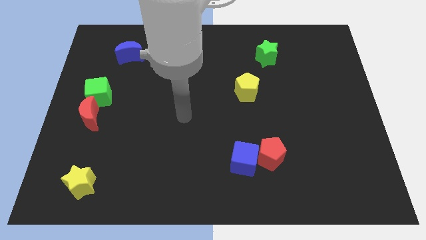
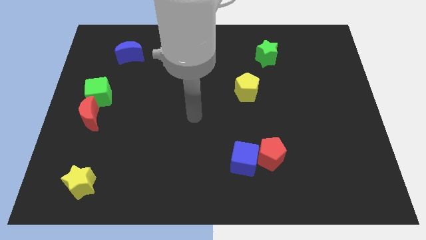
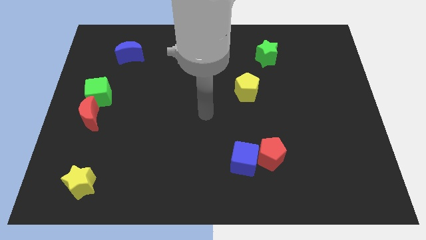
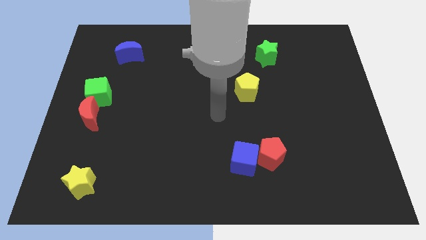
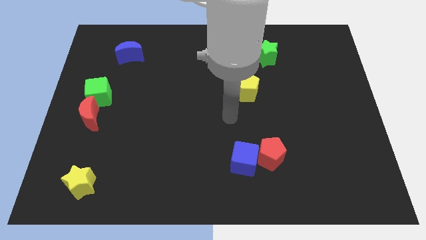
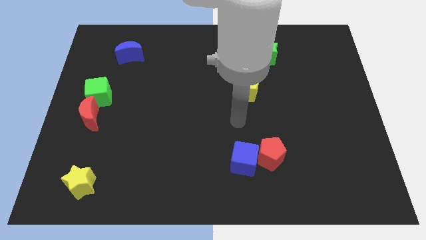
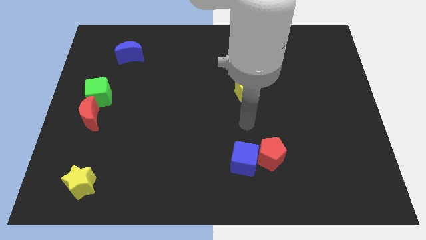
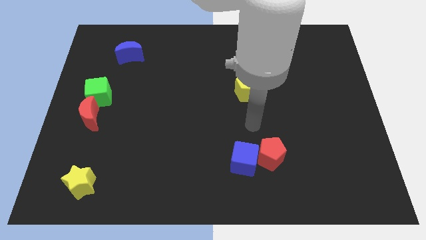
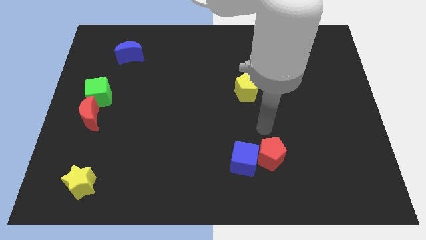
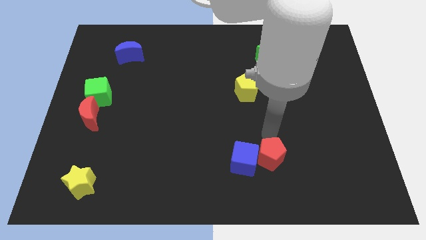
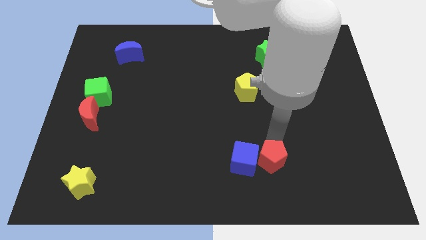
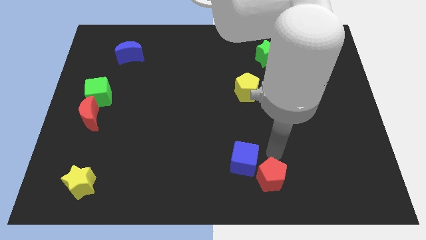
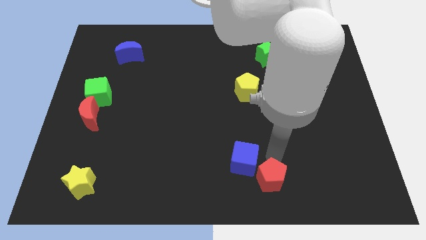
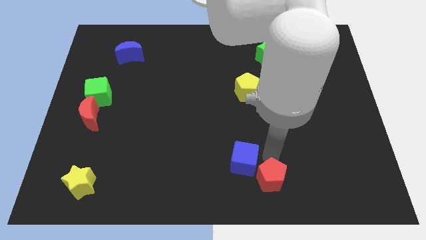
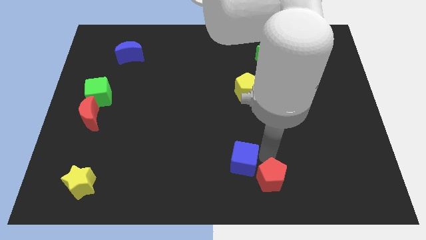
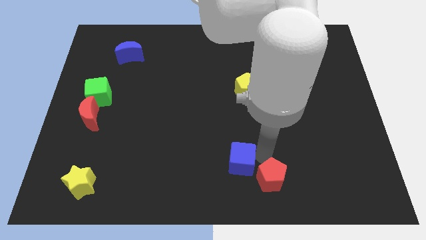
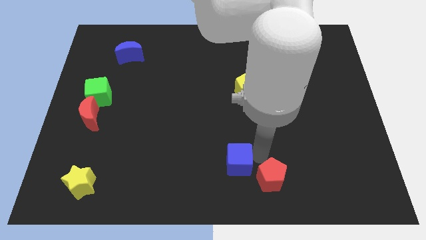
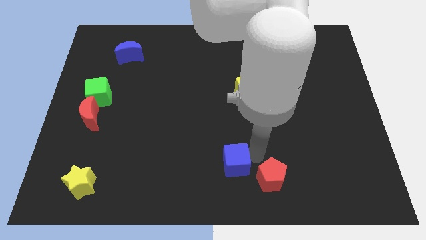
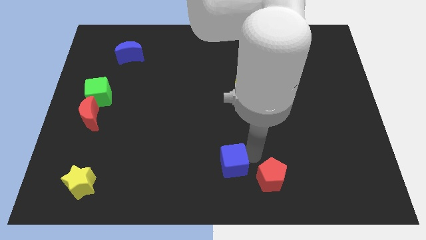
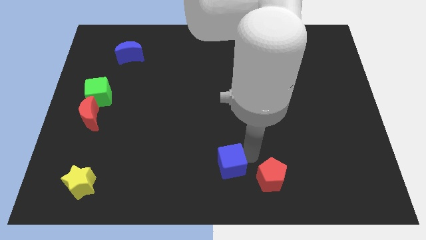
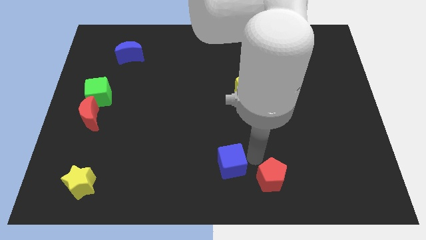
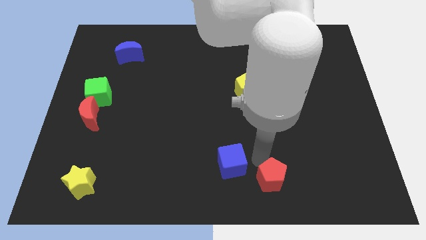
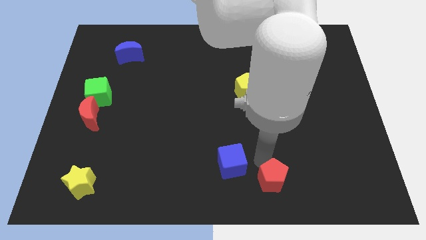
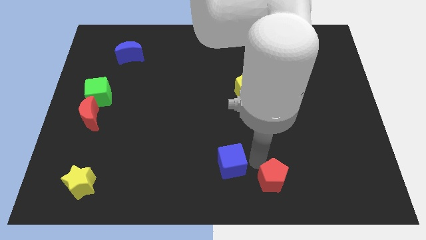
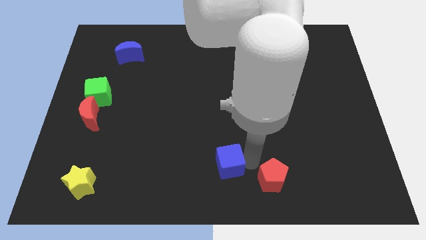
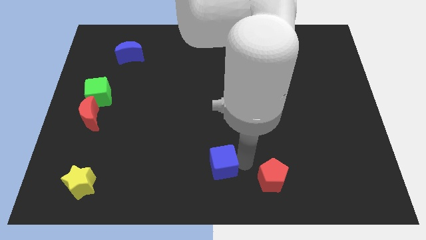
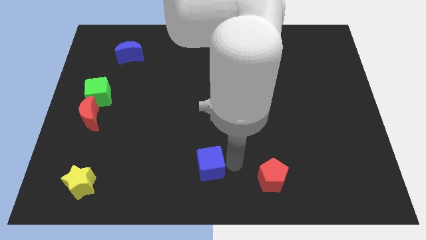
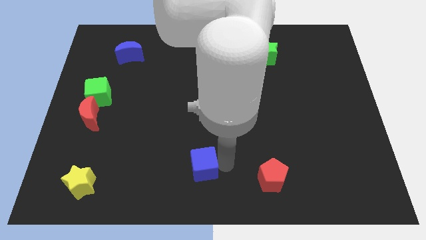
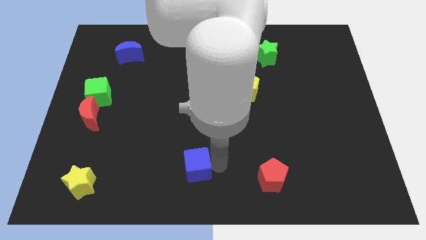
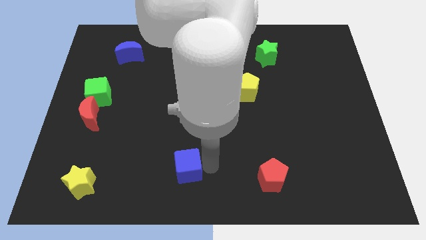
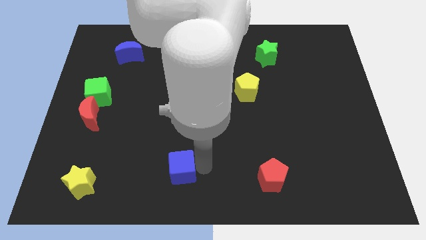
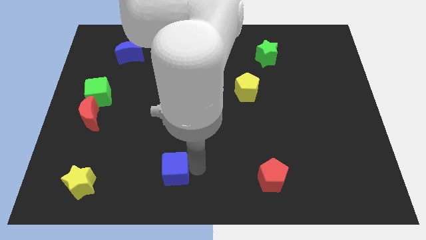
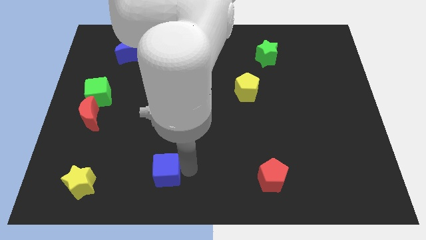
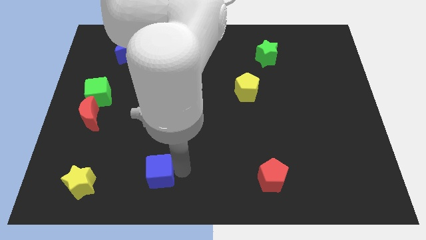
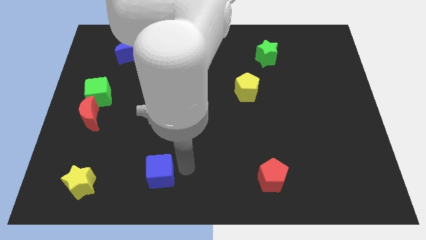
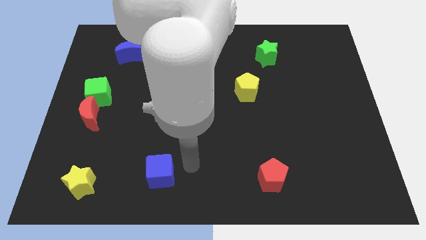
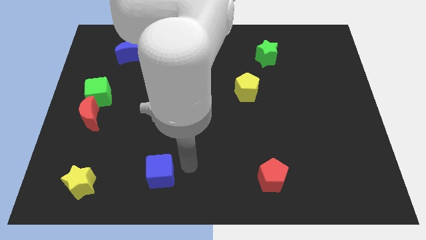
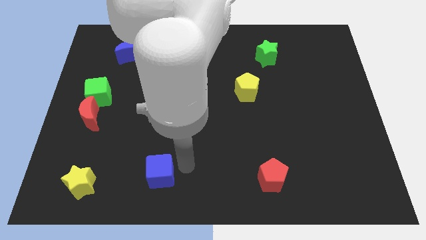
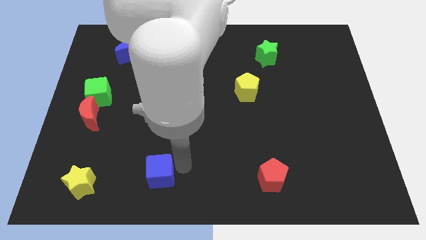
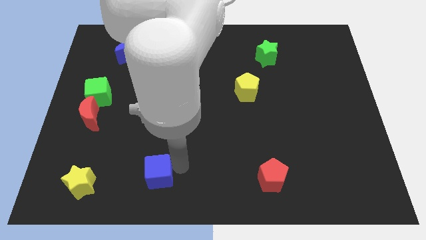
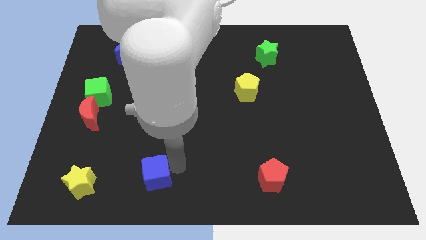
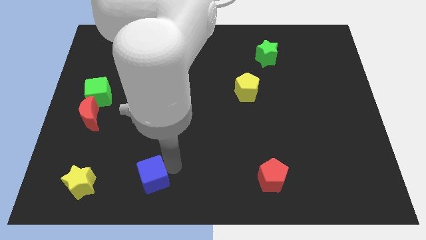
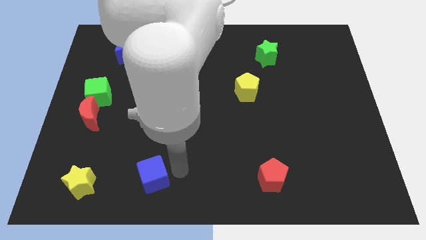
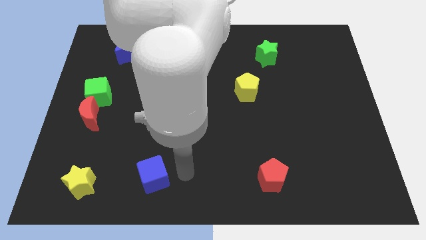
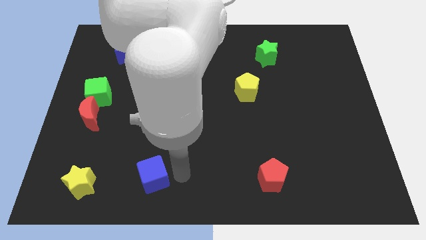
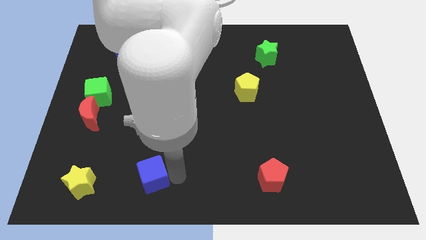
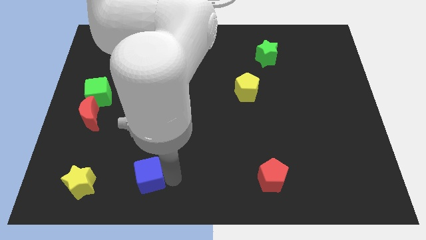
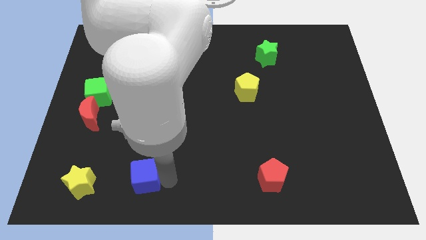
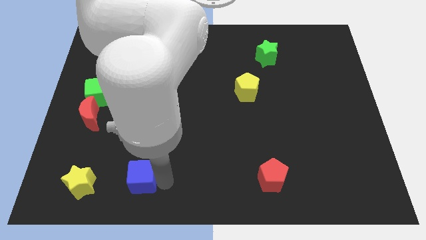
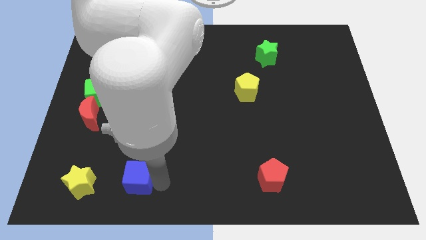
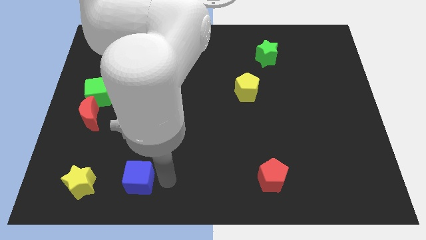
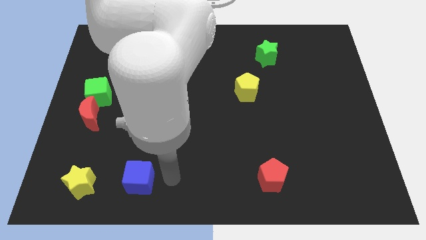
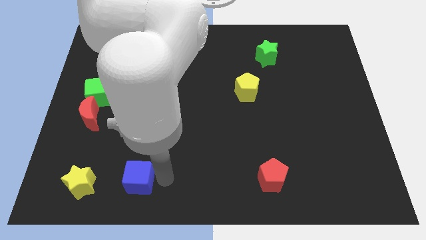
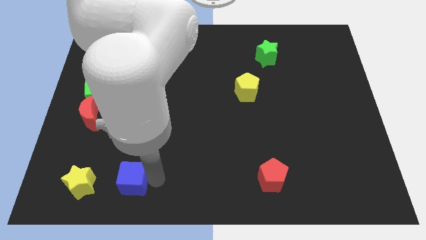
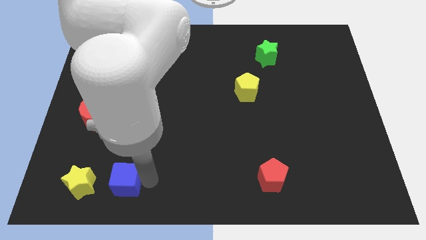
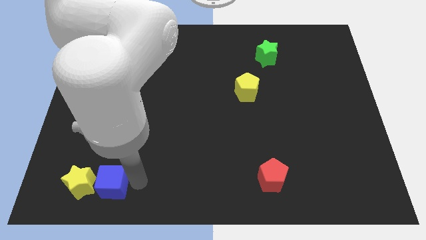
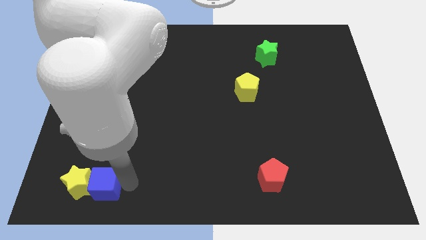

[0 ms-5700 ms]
push the blue cube next to the yellow star

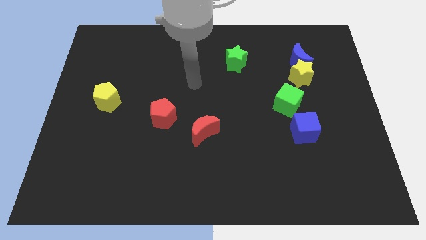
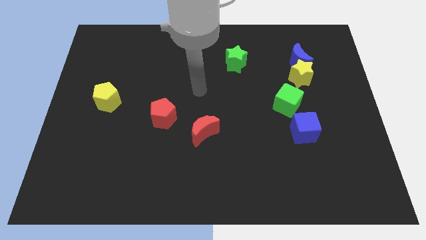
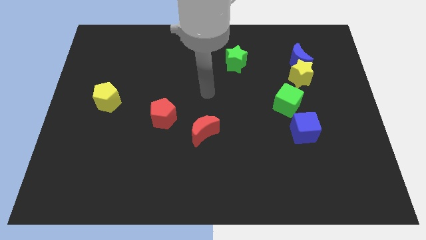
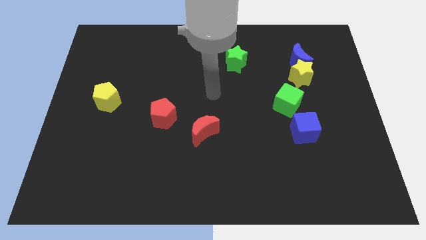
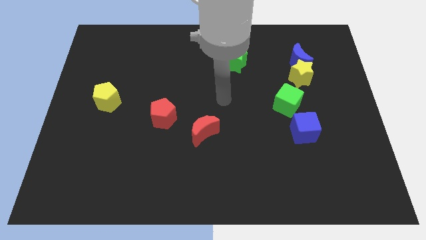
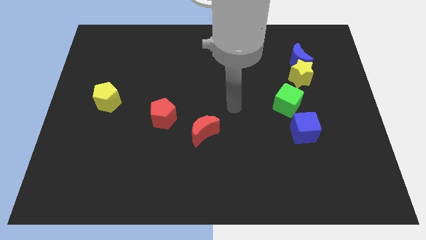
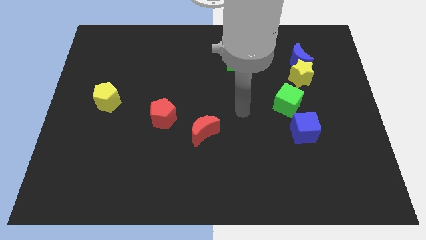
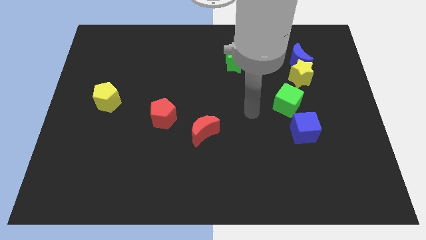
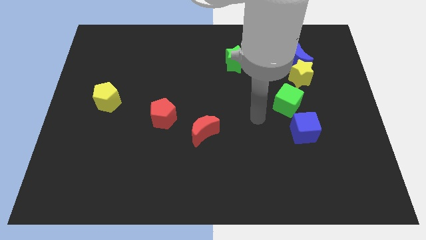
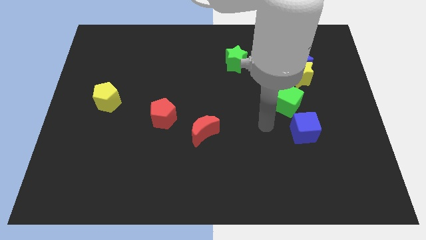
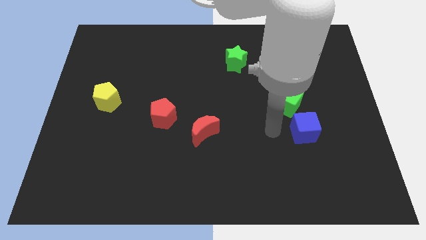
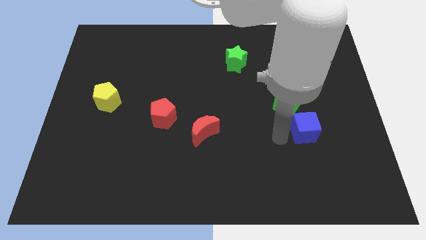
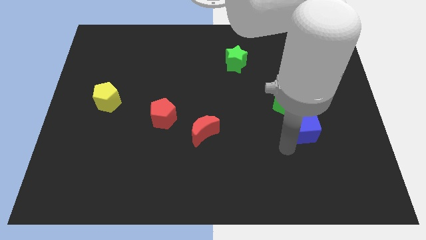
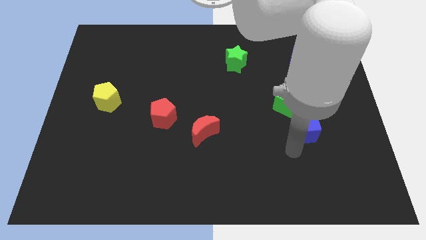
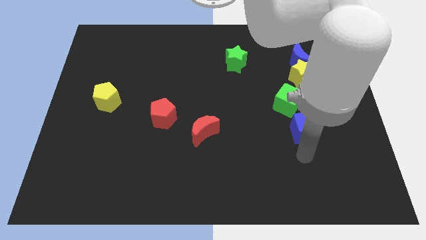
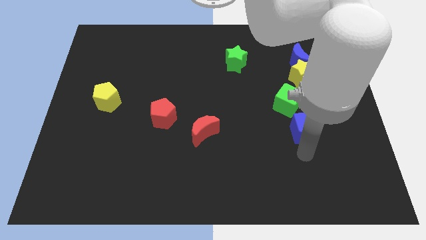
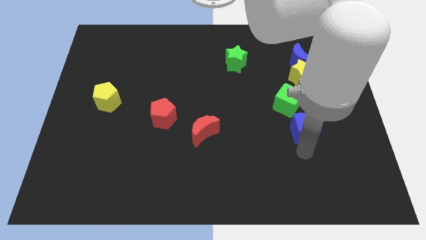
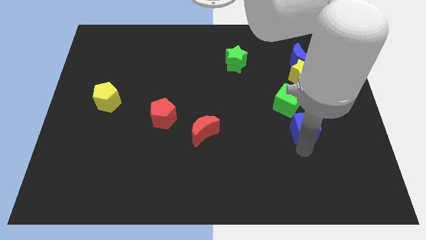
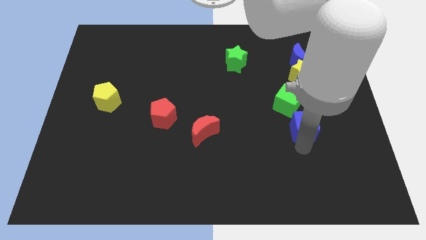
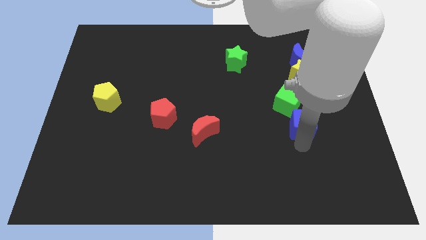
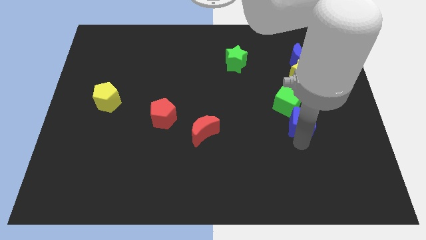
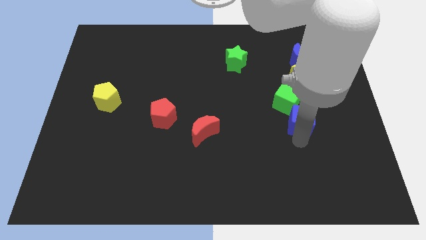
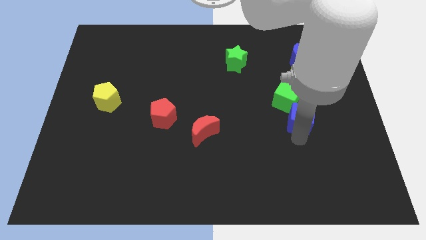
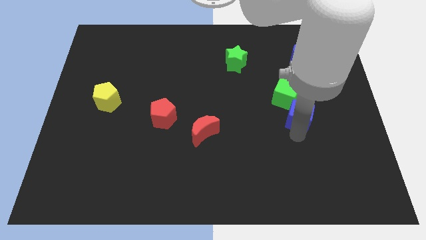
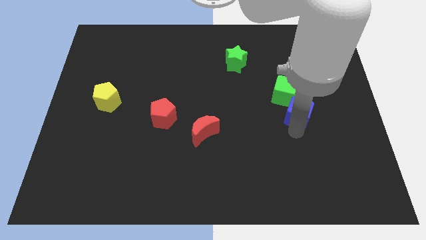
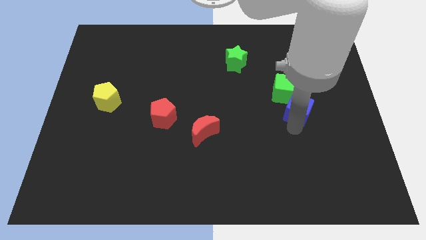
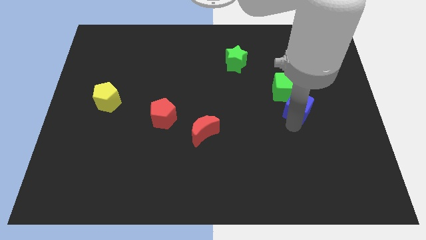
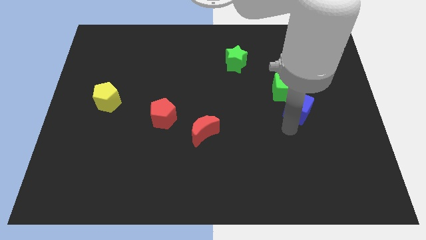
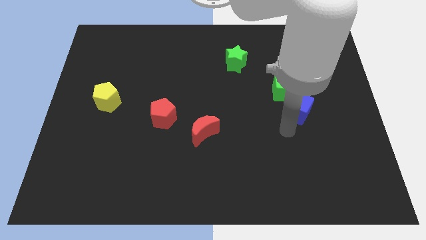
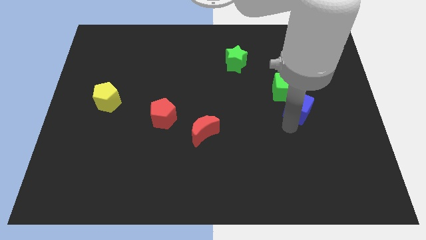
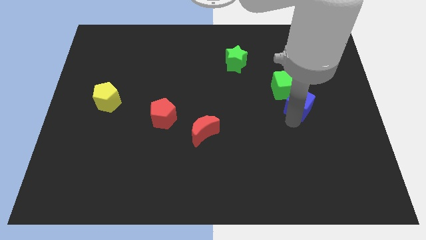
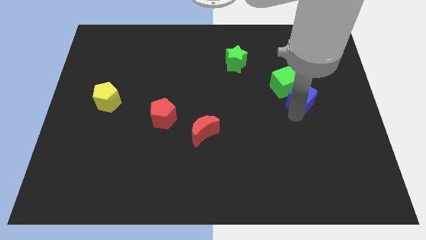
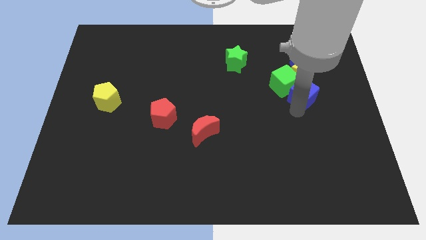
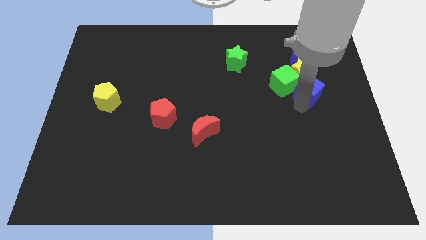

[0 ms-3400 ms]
slide the blue cube towards the yellow star
